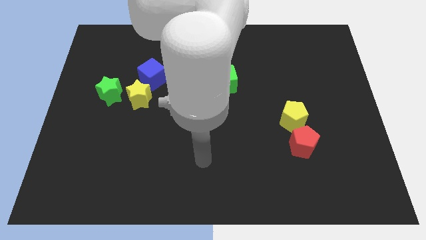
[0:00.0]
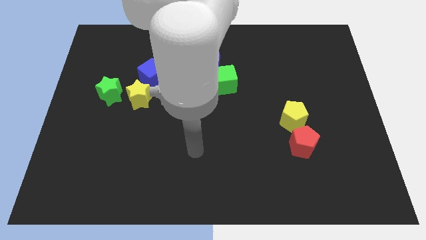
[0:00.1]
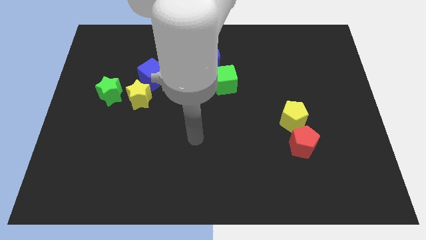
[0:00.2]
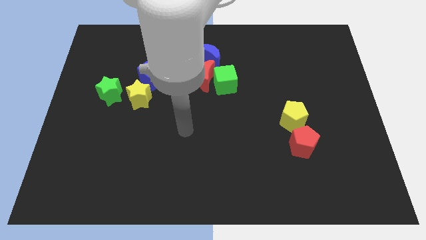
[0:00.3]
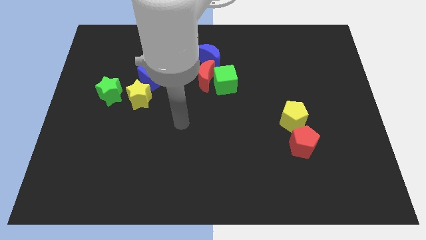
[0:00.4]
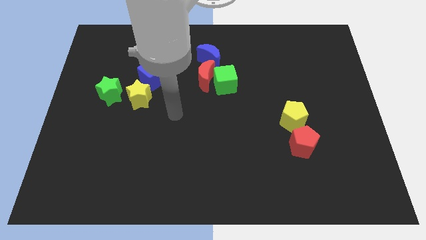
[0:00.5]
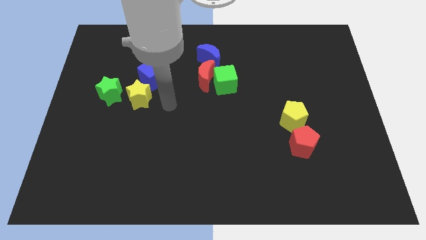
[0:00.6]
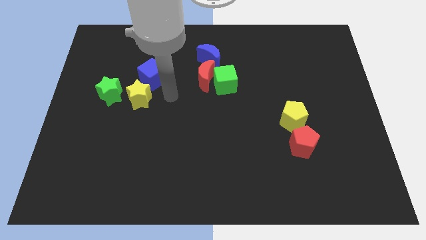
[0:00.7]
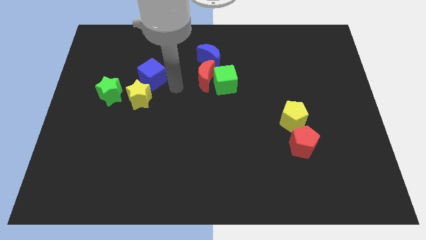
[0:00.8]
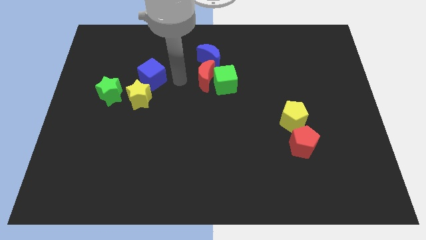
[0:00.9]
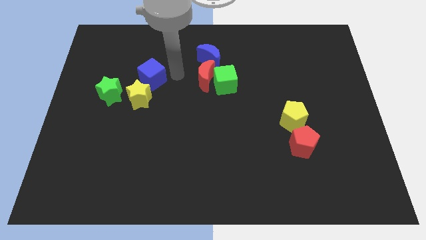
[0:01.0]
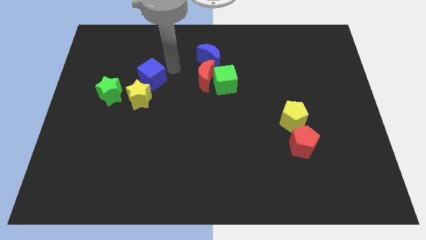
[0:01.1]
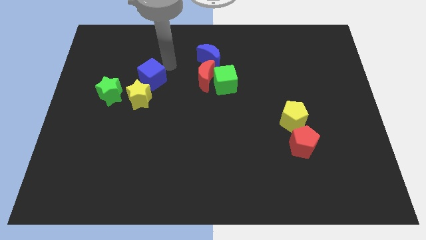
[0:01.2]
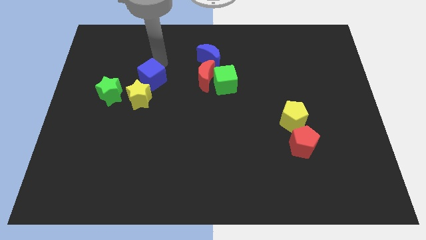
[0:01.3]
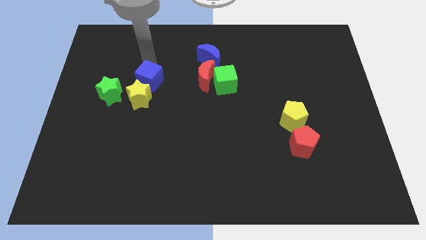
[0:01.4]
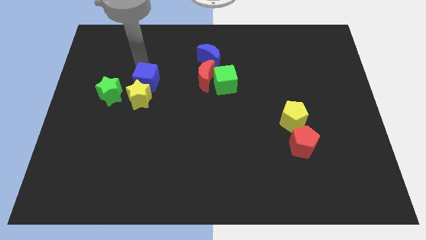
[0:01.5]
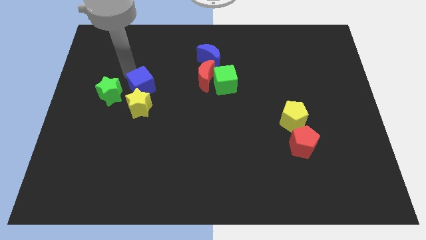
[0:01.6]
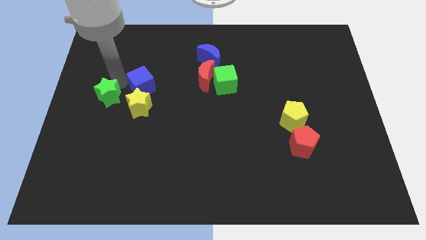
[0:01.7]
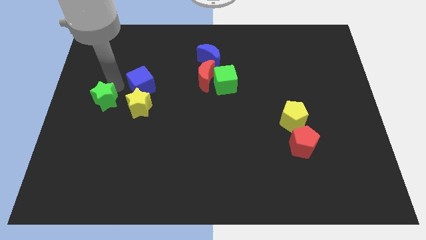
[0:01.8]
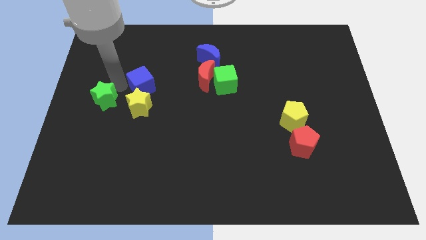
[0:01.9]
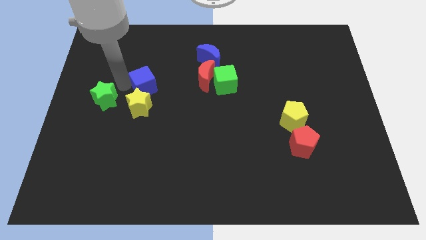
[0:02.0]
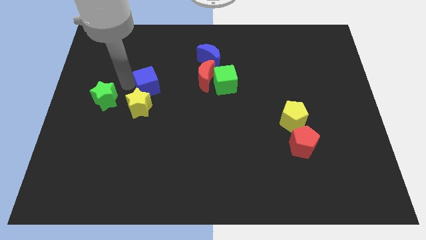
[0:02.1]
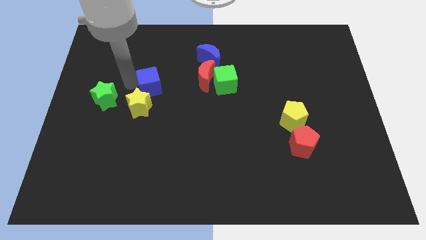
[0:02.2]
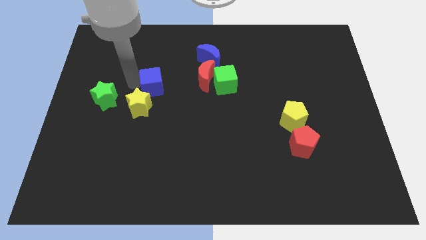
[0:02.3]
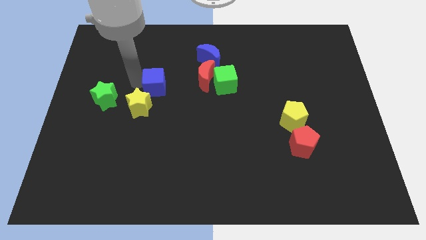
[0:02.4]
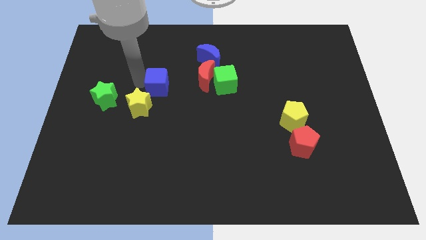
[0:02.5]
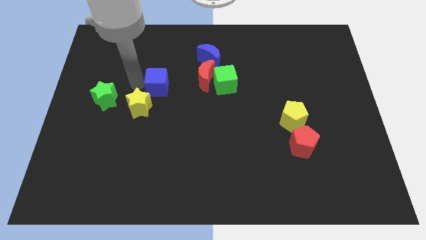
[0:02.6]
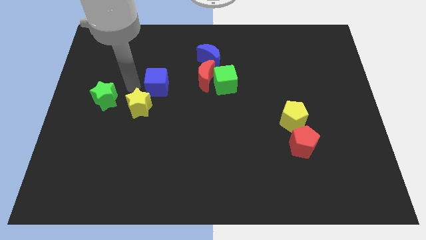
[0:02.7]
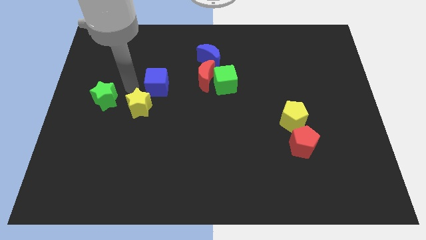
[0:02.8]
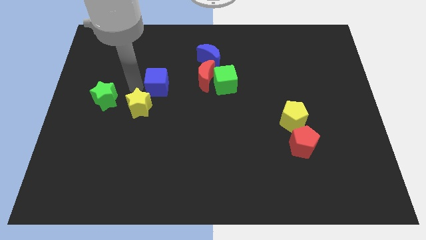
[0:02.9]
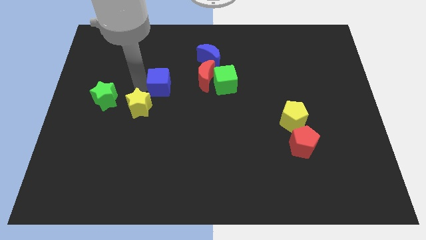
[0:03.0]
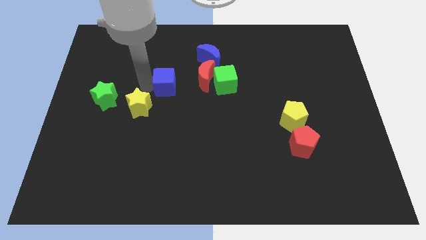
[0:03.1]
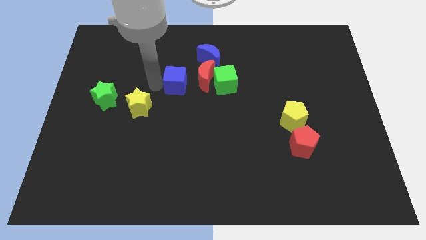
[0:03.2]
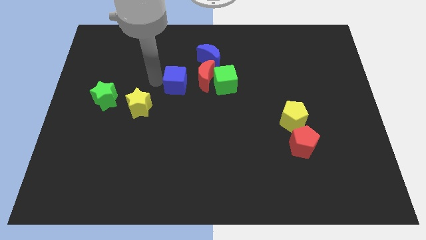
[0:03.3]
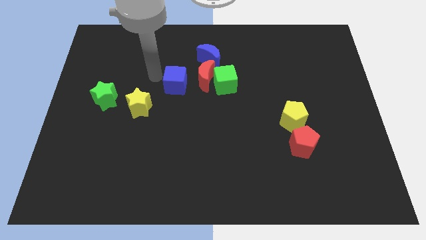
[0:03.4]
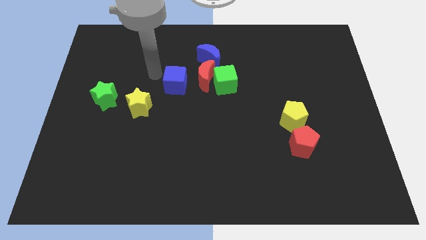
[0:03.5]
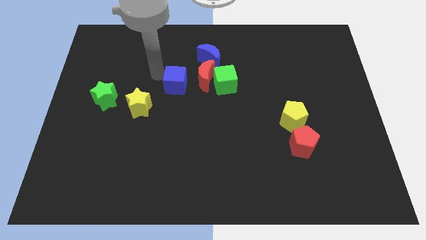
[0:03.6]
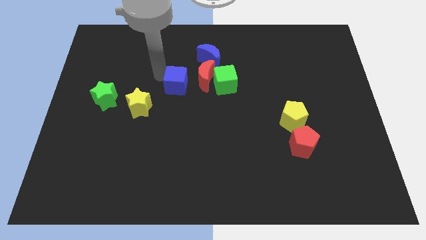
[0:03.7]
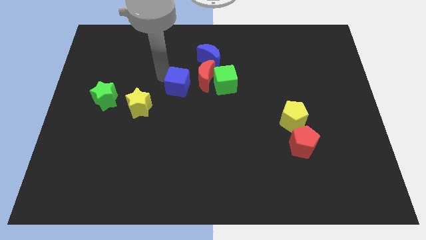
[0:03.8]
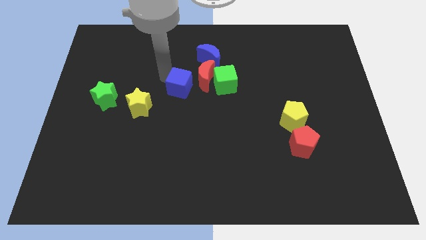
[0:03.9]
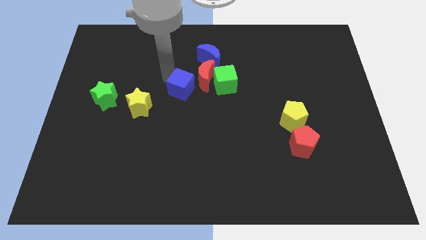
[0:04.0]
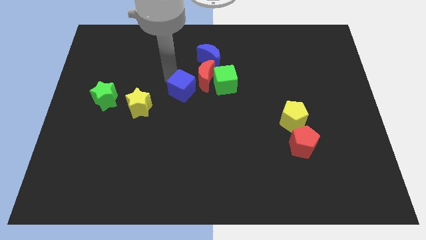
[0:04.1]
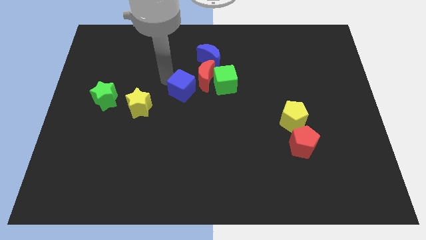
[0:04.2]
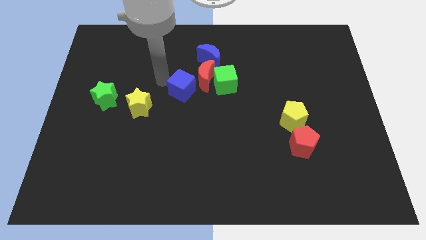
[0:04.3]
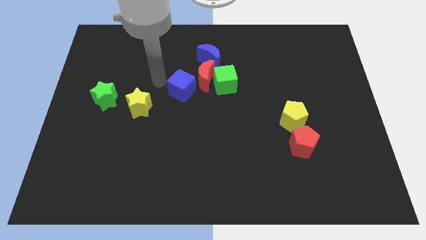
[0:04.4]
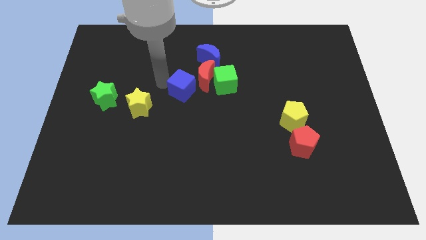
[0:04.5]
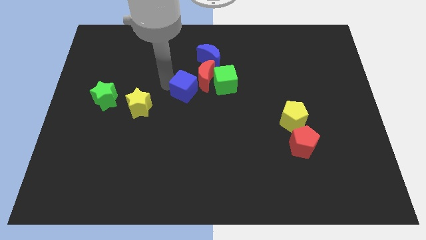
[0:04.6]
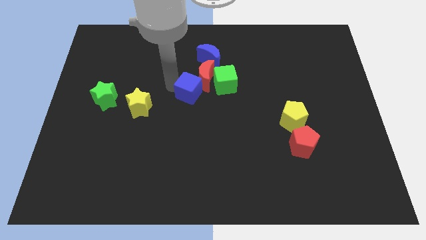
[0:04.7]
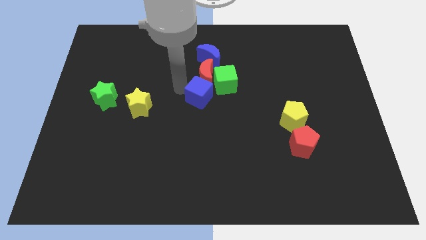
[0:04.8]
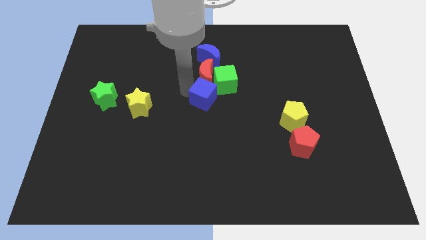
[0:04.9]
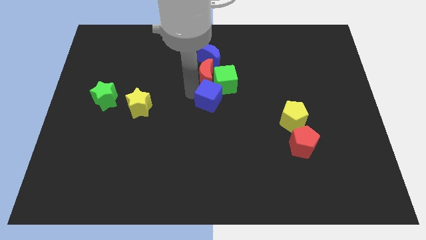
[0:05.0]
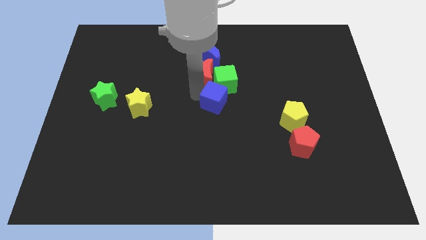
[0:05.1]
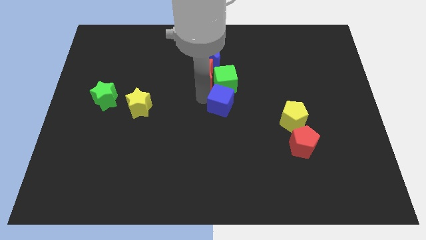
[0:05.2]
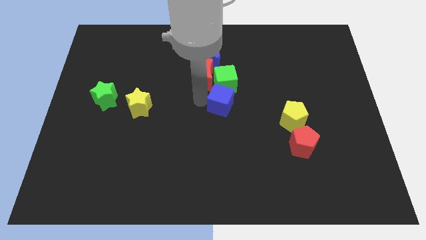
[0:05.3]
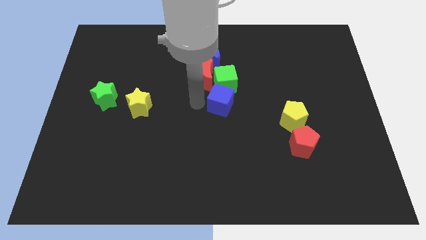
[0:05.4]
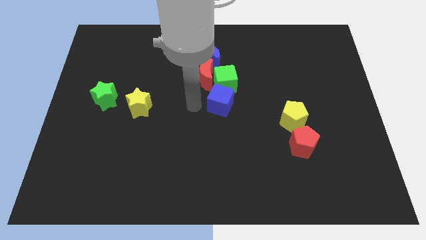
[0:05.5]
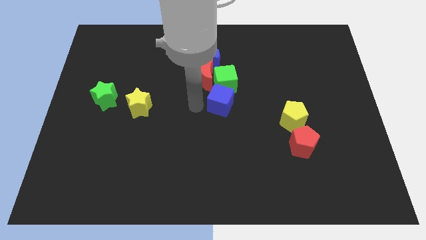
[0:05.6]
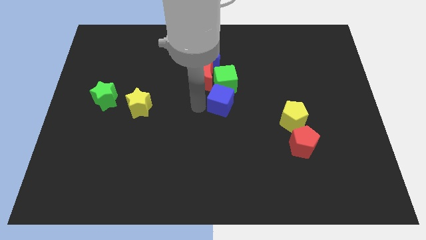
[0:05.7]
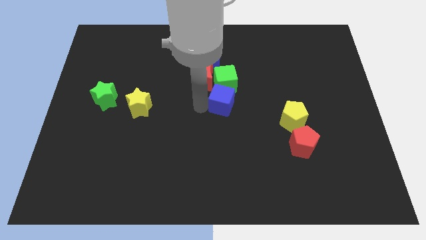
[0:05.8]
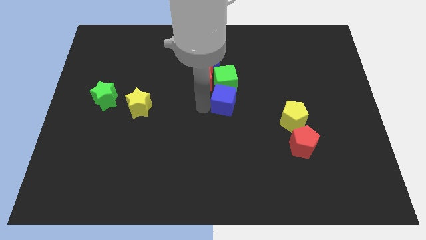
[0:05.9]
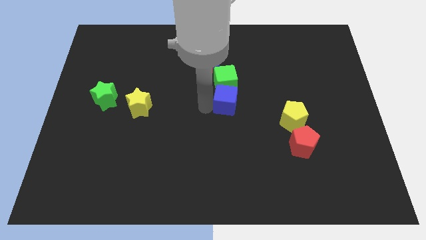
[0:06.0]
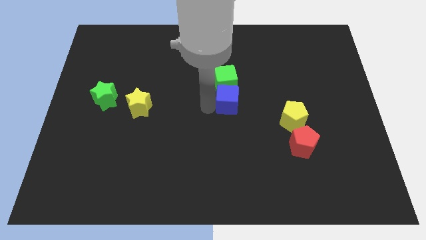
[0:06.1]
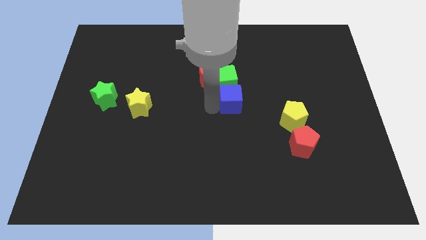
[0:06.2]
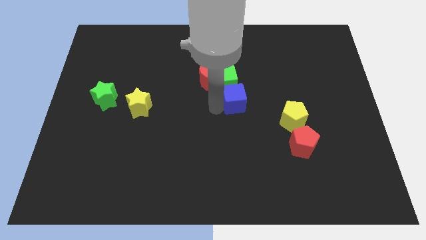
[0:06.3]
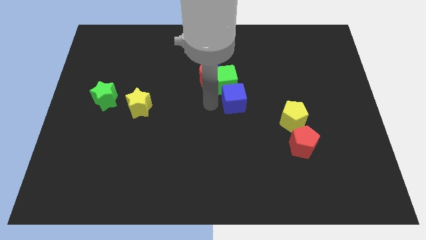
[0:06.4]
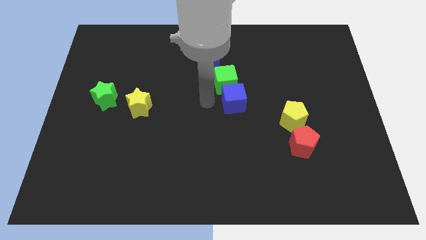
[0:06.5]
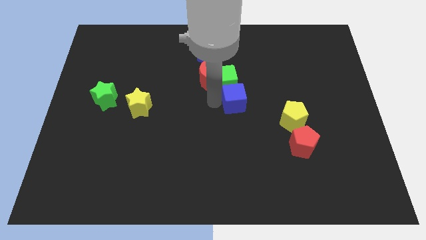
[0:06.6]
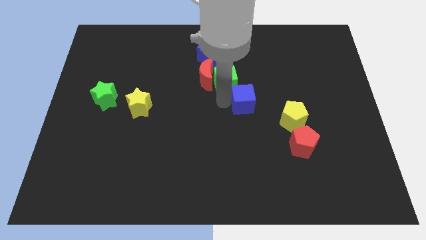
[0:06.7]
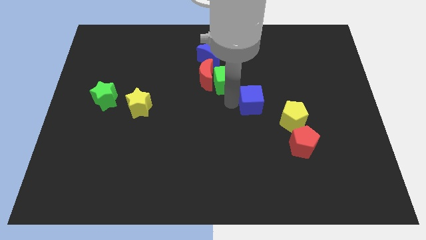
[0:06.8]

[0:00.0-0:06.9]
push the blue cube to the top left side of the yellow pentagon

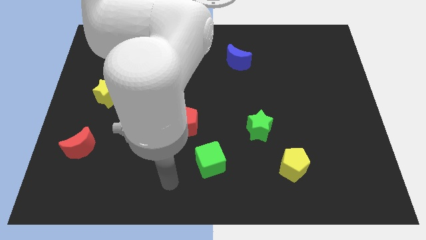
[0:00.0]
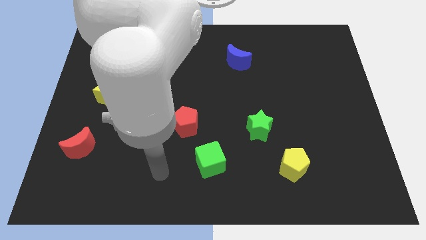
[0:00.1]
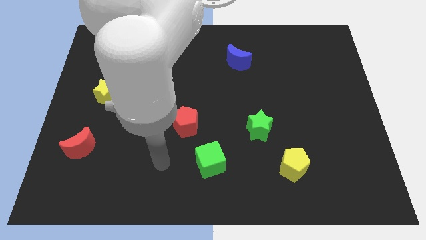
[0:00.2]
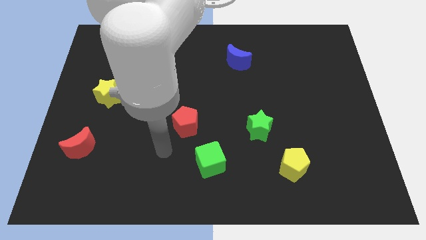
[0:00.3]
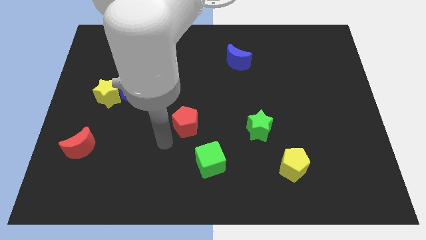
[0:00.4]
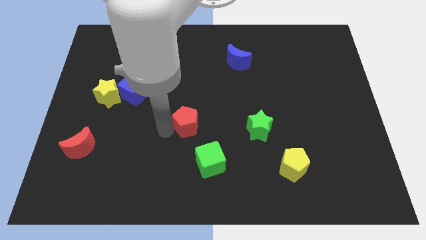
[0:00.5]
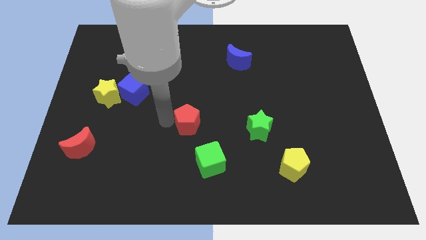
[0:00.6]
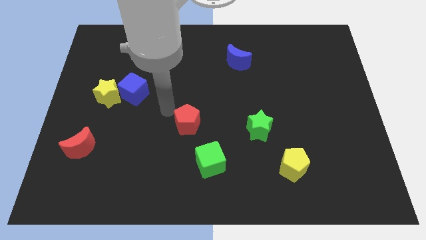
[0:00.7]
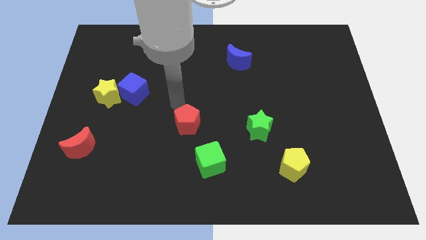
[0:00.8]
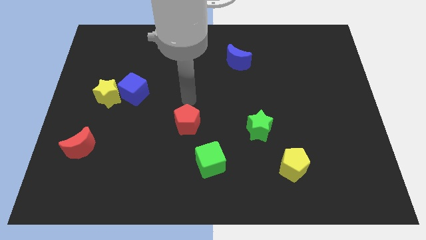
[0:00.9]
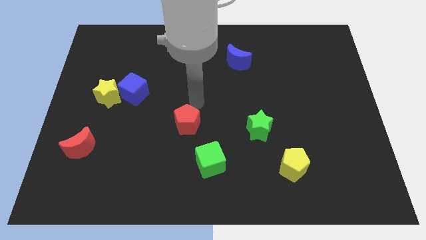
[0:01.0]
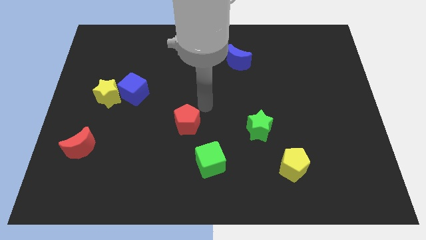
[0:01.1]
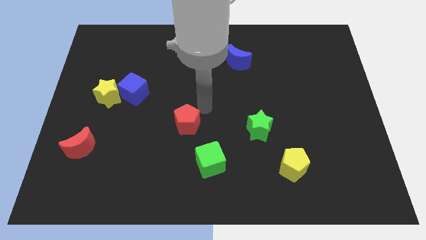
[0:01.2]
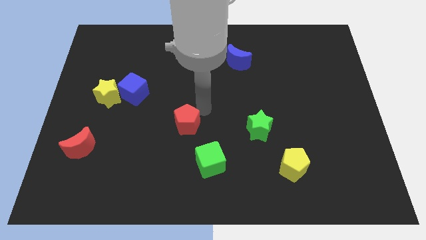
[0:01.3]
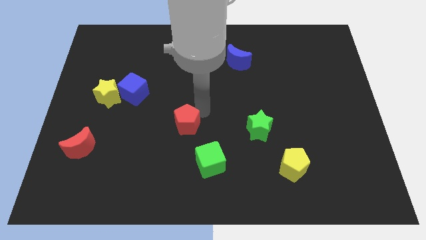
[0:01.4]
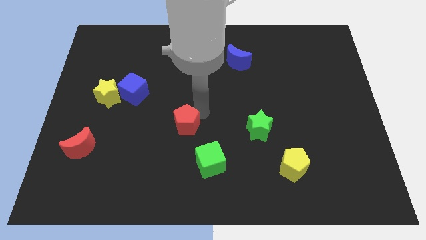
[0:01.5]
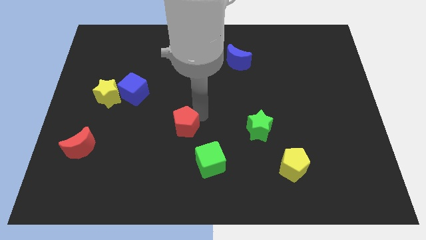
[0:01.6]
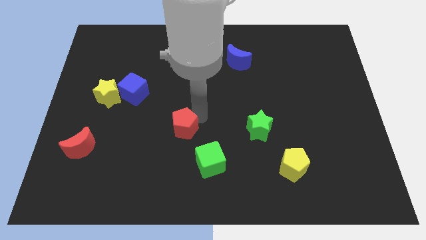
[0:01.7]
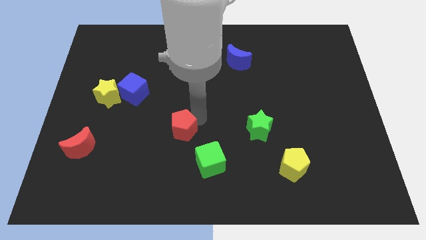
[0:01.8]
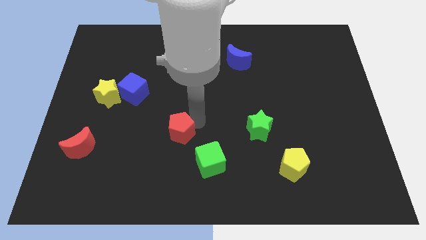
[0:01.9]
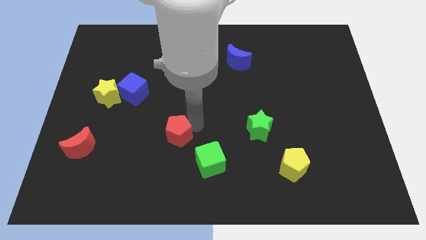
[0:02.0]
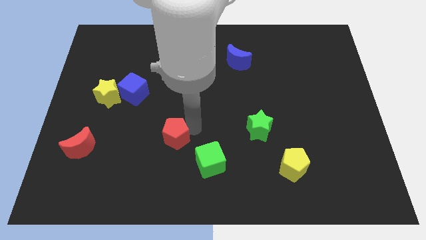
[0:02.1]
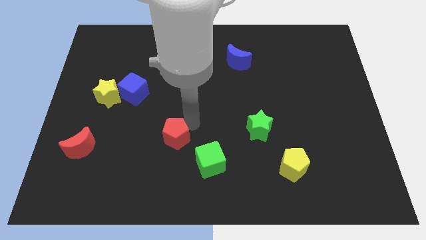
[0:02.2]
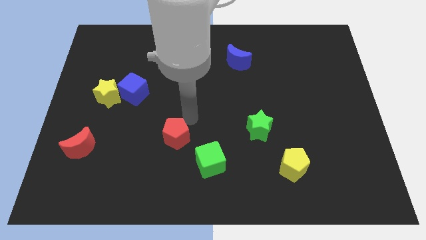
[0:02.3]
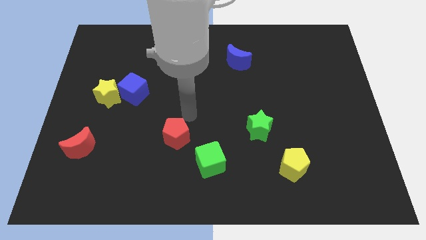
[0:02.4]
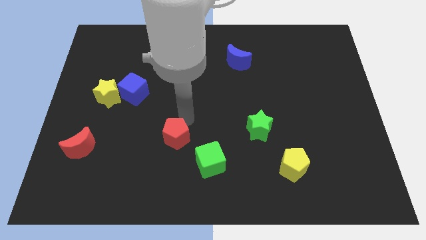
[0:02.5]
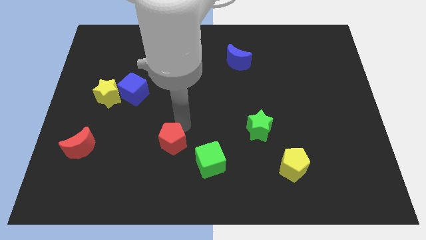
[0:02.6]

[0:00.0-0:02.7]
push the red pentagon to the left side of the green cube
